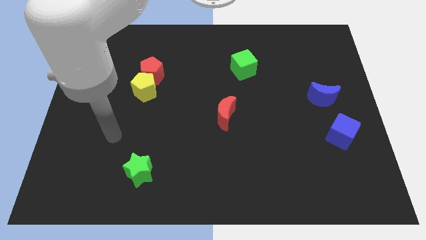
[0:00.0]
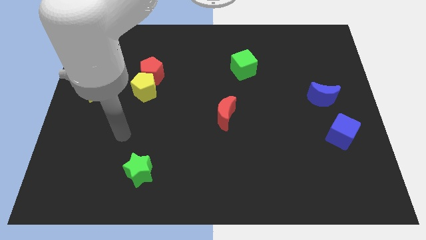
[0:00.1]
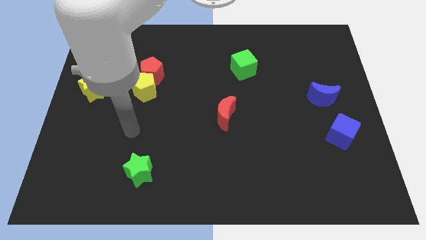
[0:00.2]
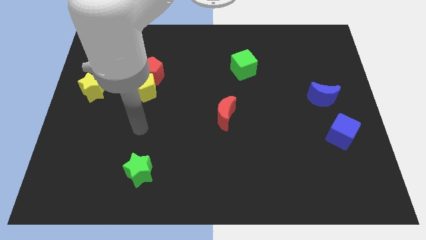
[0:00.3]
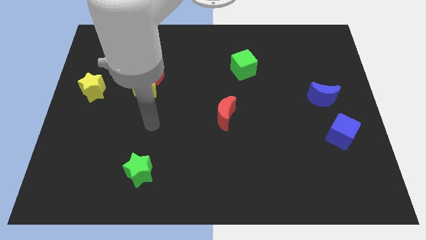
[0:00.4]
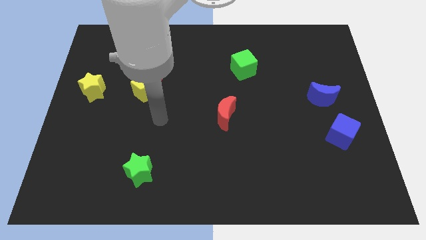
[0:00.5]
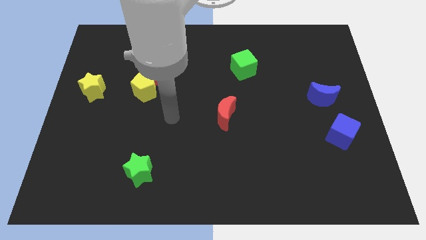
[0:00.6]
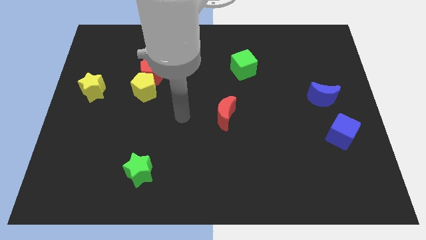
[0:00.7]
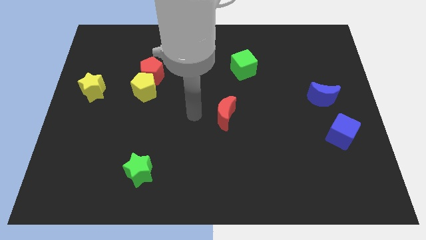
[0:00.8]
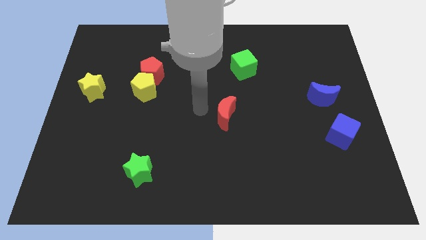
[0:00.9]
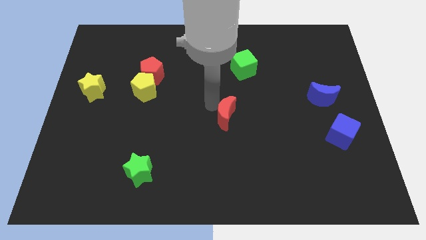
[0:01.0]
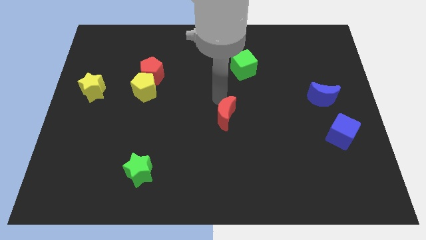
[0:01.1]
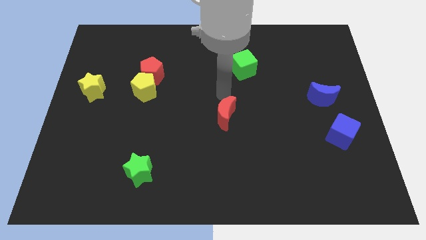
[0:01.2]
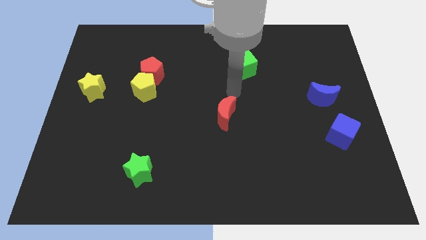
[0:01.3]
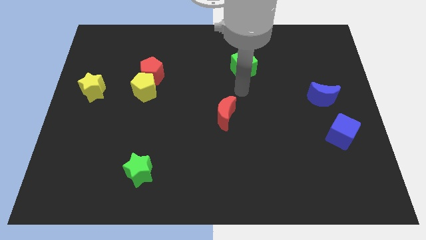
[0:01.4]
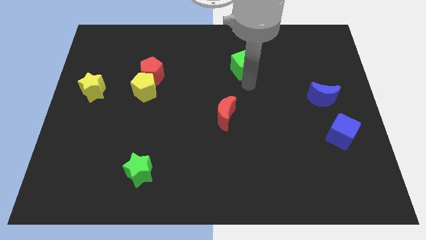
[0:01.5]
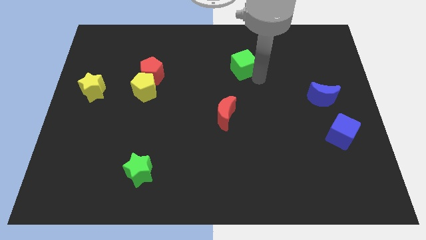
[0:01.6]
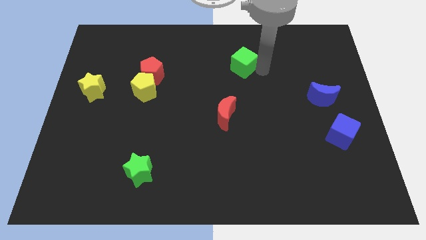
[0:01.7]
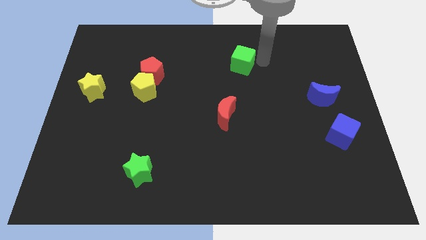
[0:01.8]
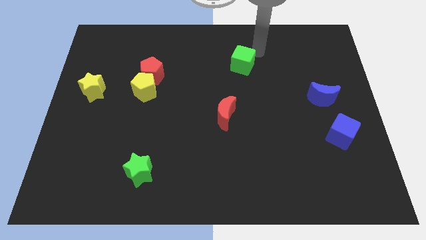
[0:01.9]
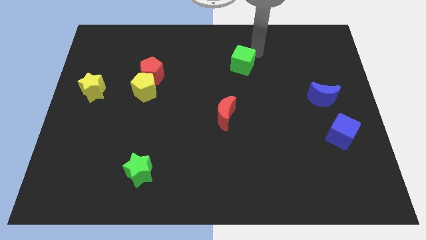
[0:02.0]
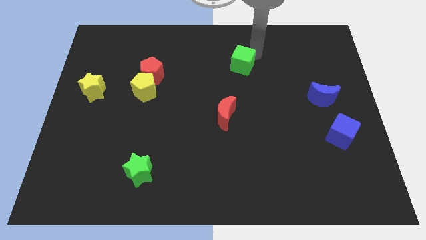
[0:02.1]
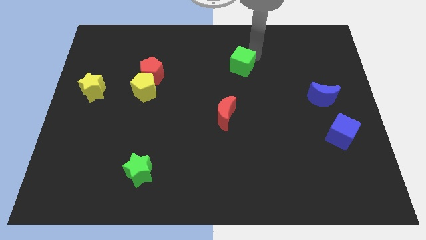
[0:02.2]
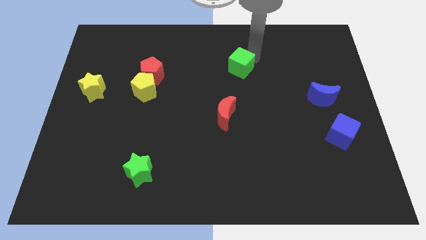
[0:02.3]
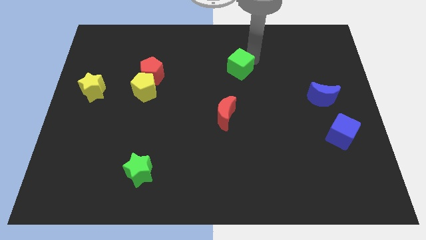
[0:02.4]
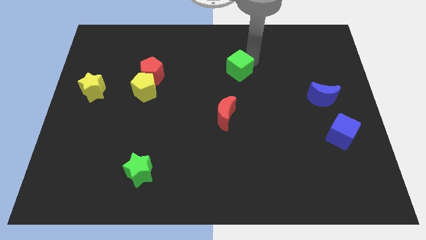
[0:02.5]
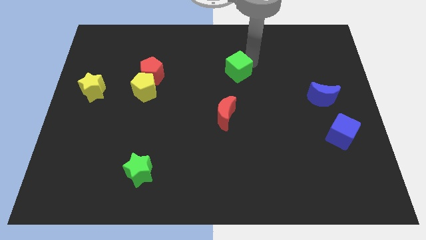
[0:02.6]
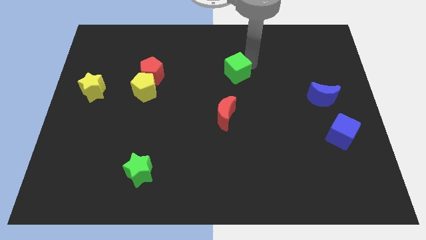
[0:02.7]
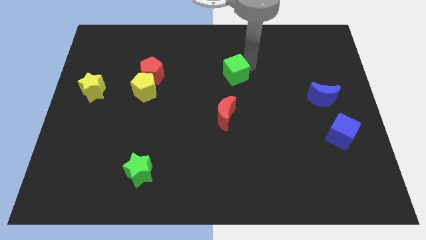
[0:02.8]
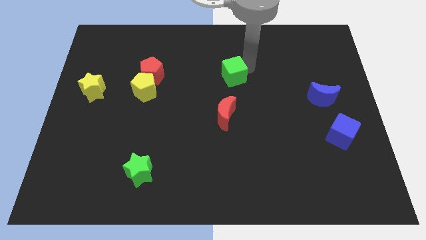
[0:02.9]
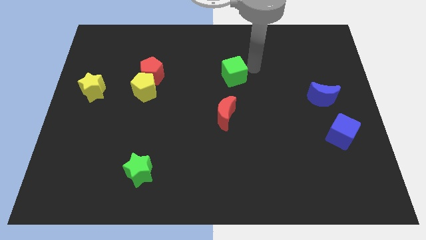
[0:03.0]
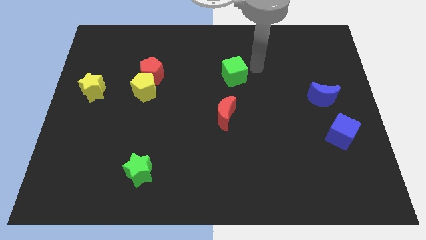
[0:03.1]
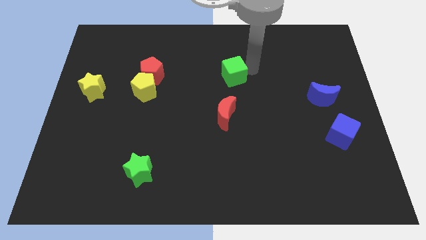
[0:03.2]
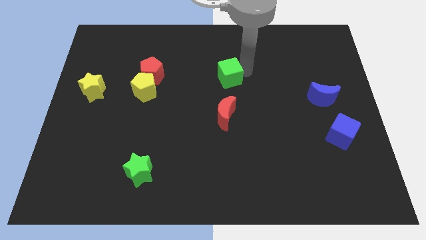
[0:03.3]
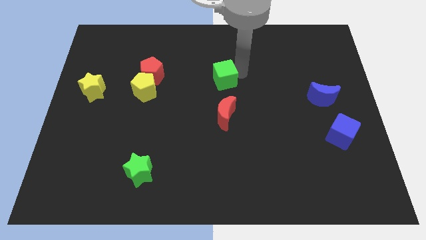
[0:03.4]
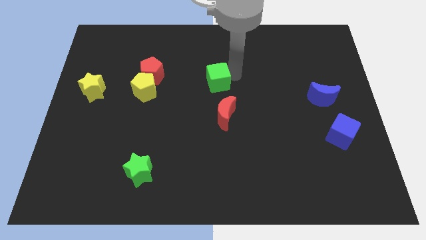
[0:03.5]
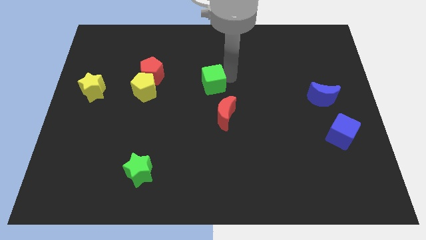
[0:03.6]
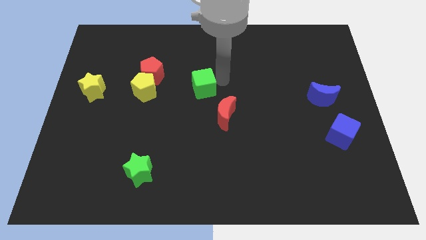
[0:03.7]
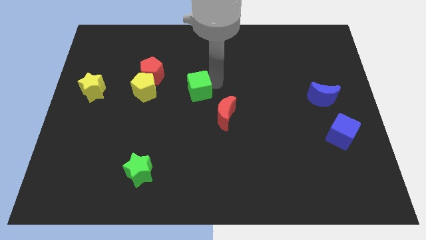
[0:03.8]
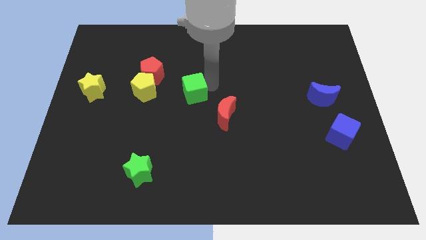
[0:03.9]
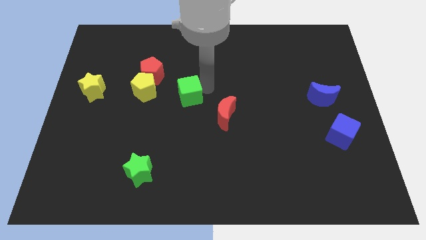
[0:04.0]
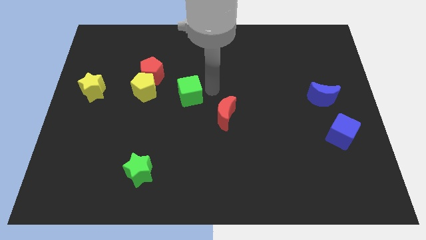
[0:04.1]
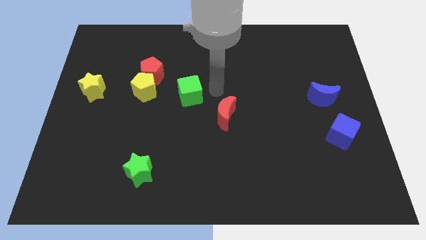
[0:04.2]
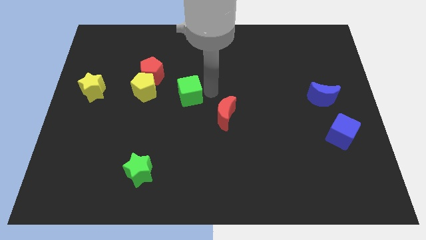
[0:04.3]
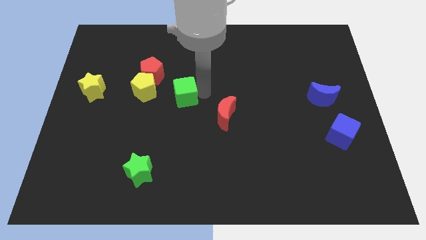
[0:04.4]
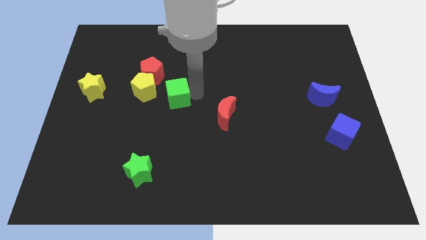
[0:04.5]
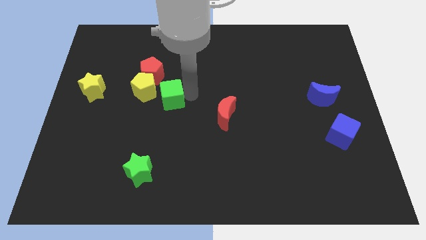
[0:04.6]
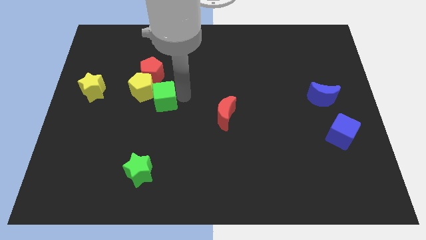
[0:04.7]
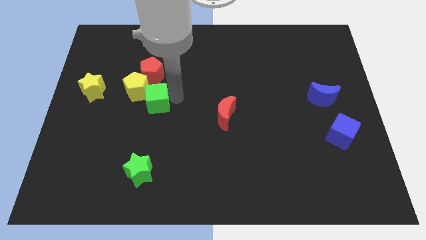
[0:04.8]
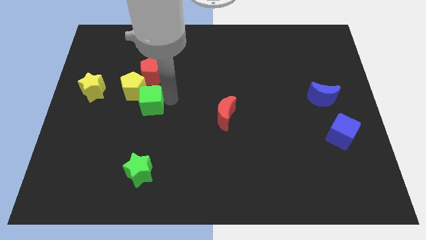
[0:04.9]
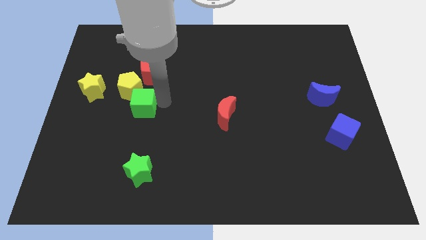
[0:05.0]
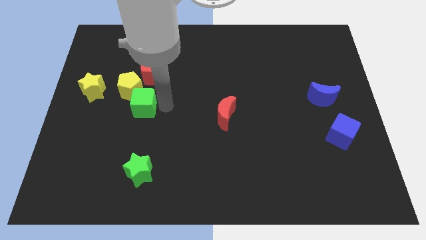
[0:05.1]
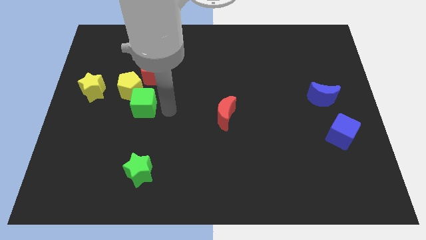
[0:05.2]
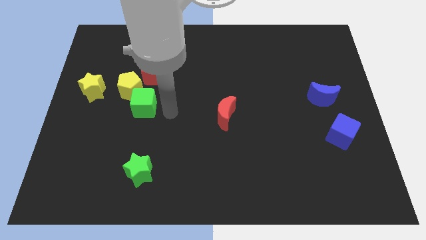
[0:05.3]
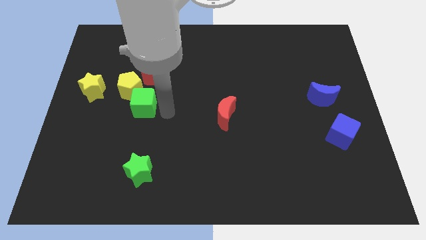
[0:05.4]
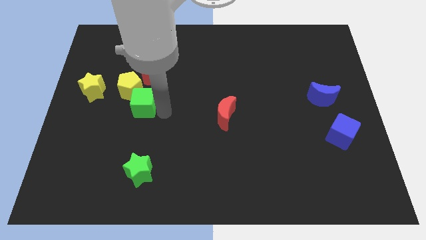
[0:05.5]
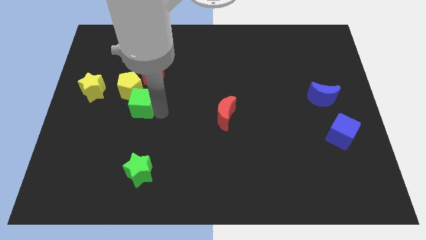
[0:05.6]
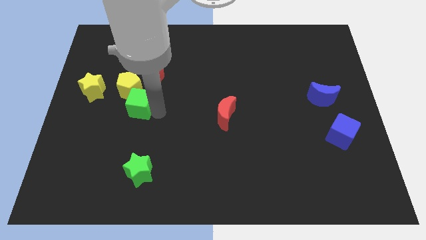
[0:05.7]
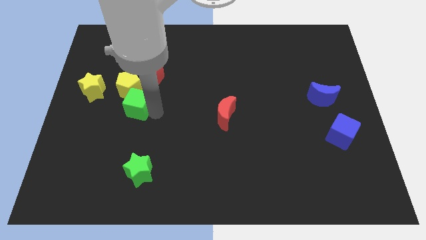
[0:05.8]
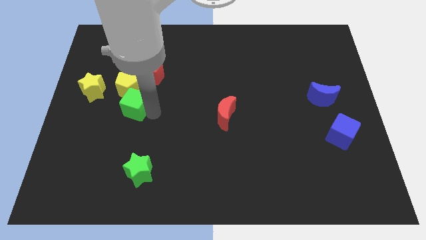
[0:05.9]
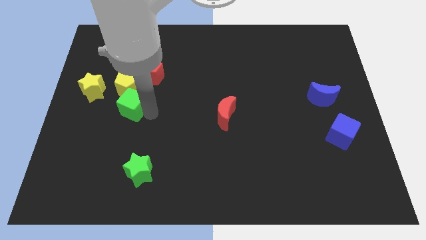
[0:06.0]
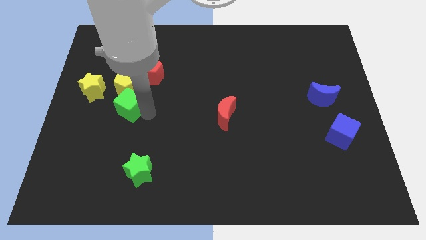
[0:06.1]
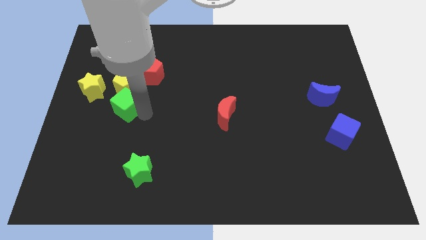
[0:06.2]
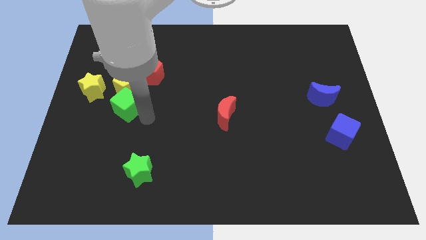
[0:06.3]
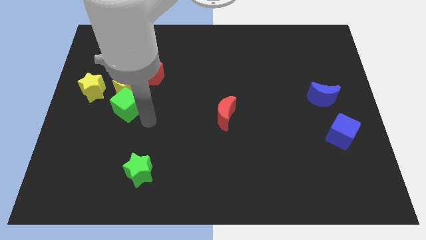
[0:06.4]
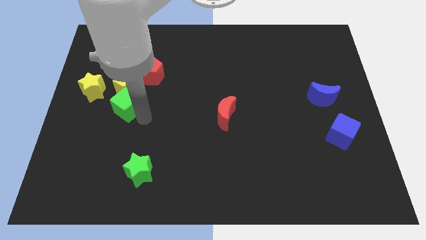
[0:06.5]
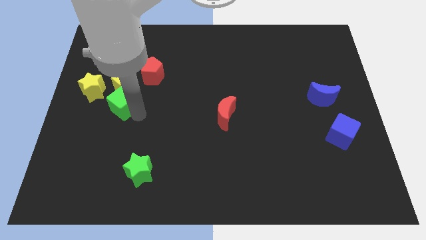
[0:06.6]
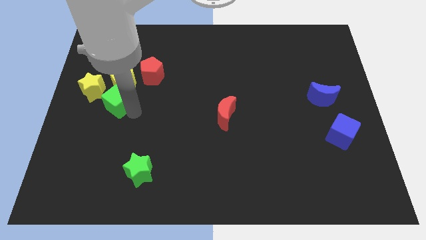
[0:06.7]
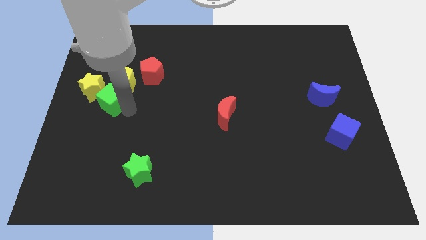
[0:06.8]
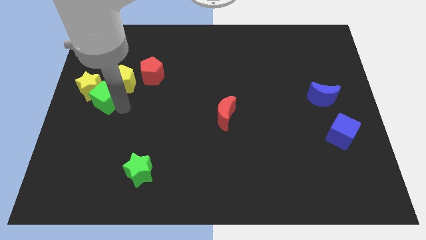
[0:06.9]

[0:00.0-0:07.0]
push the green cube to the yellow star
